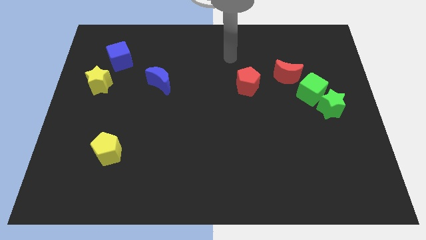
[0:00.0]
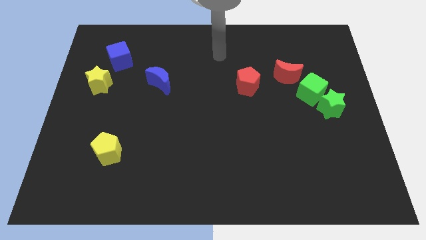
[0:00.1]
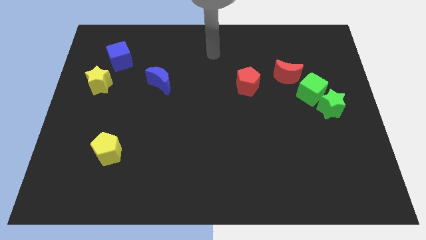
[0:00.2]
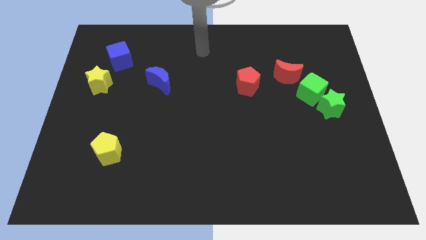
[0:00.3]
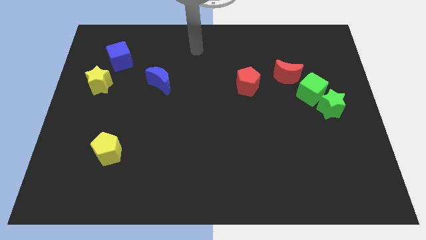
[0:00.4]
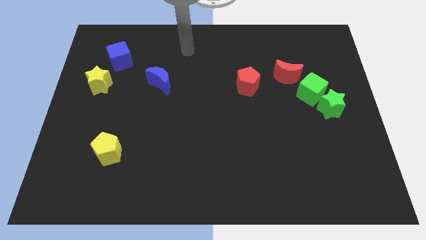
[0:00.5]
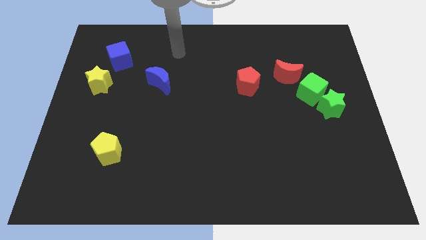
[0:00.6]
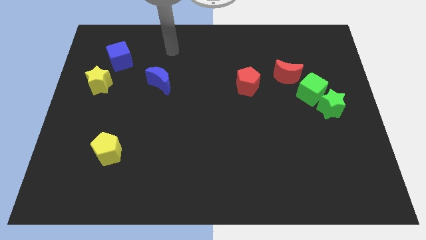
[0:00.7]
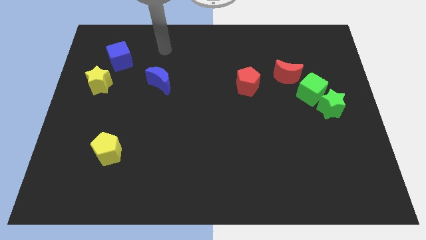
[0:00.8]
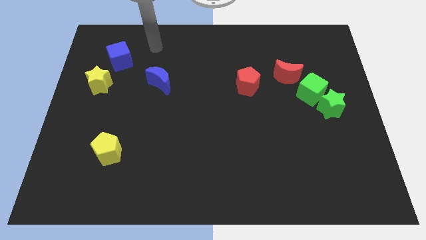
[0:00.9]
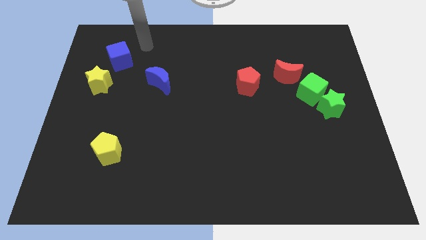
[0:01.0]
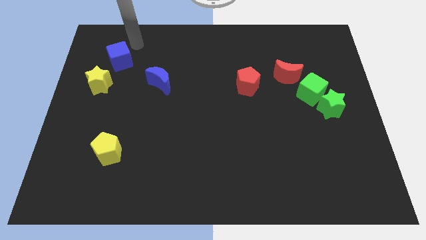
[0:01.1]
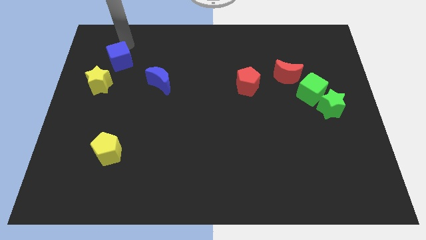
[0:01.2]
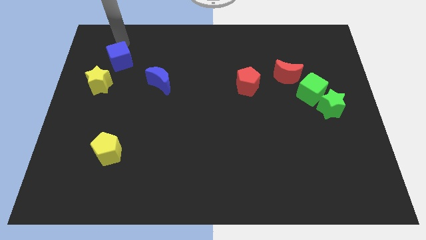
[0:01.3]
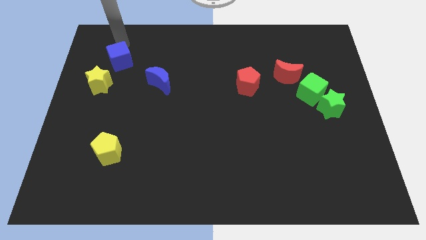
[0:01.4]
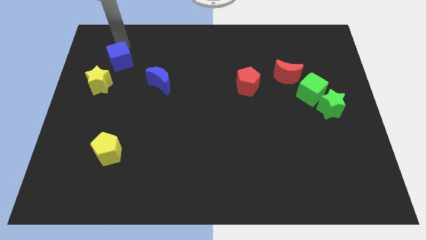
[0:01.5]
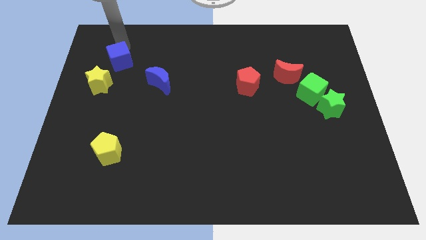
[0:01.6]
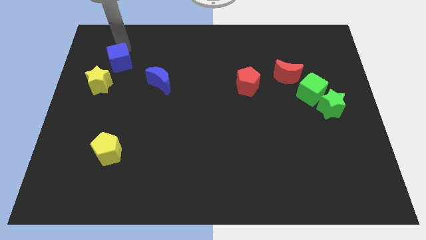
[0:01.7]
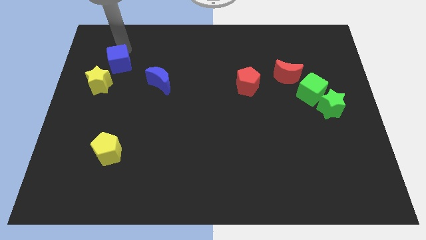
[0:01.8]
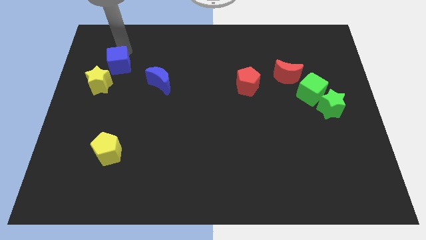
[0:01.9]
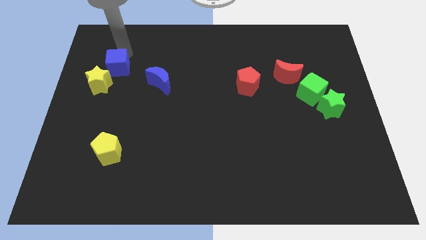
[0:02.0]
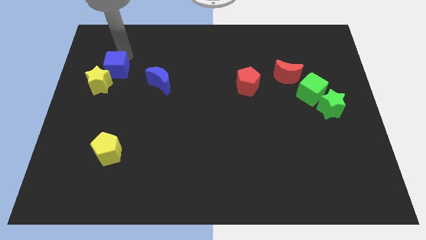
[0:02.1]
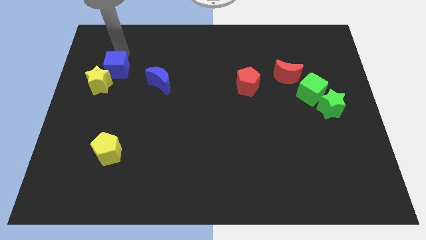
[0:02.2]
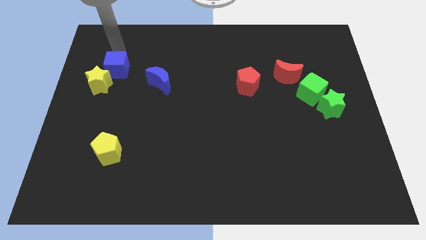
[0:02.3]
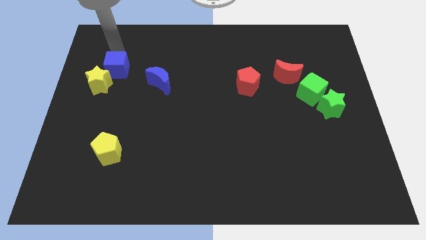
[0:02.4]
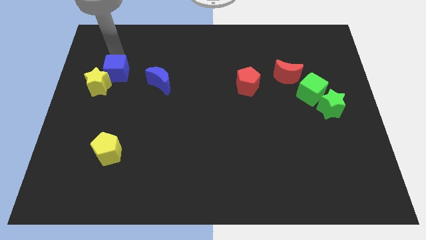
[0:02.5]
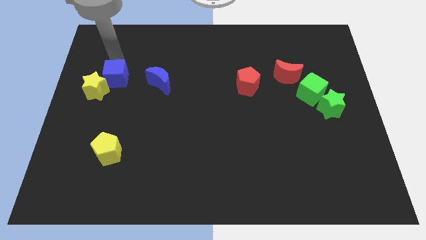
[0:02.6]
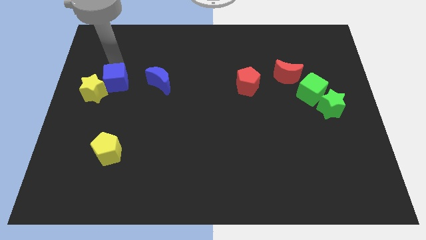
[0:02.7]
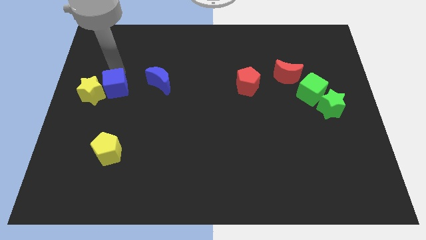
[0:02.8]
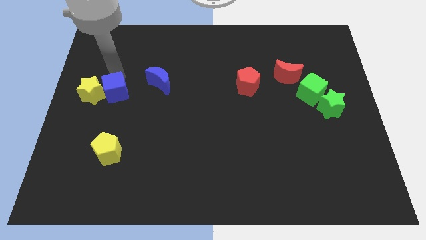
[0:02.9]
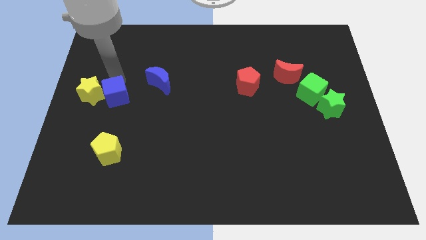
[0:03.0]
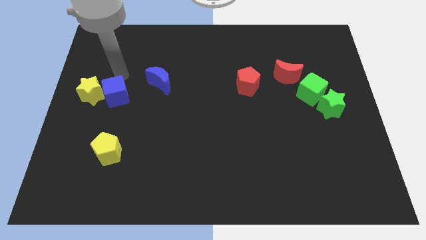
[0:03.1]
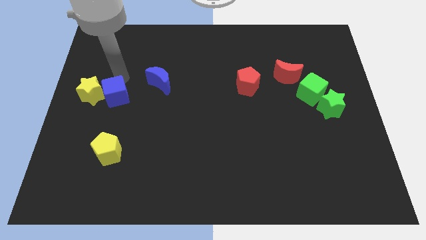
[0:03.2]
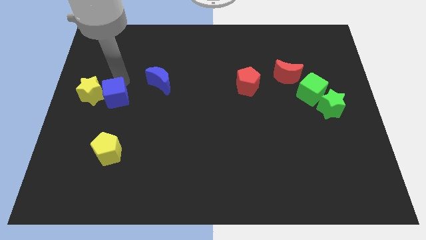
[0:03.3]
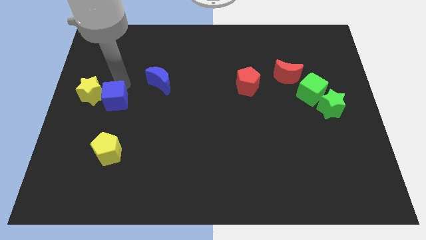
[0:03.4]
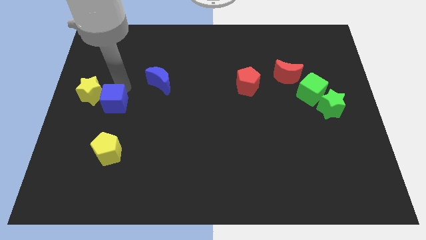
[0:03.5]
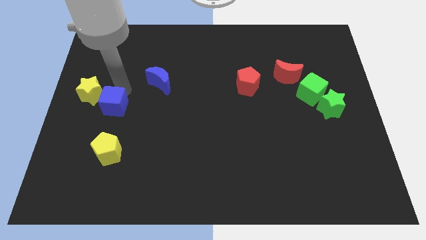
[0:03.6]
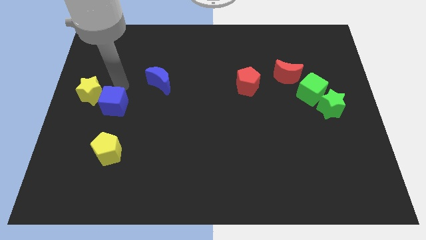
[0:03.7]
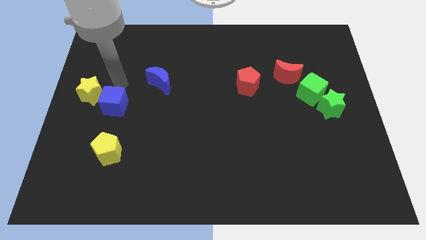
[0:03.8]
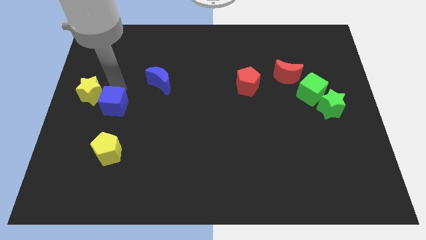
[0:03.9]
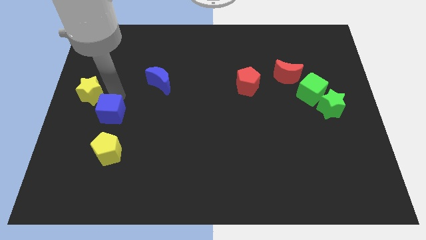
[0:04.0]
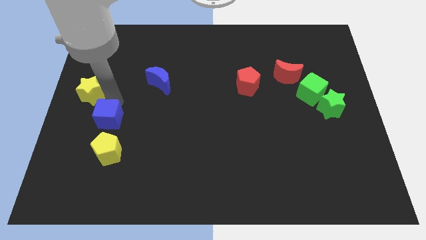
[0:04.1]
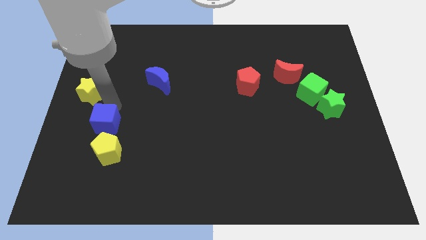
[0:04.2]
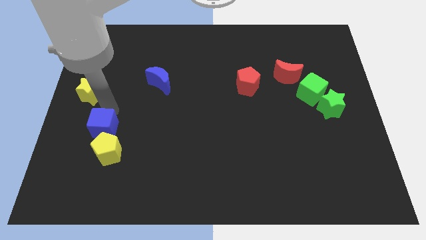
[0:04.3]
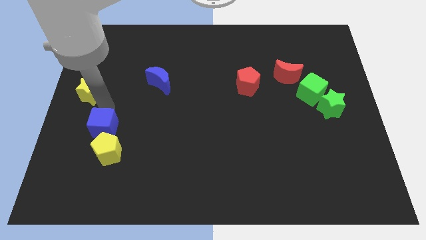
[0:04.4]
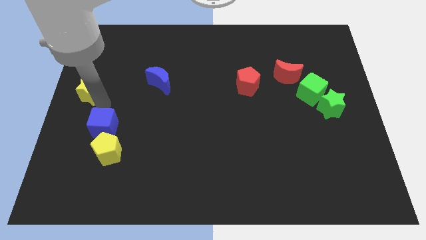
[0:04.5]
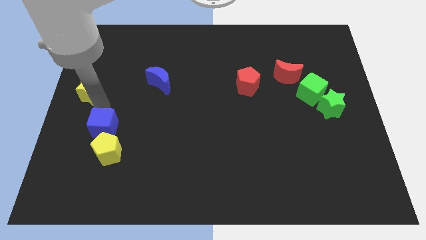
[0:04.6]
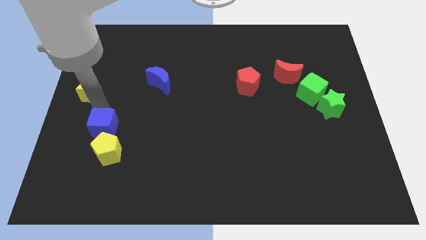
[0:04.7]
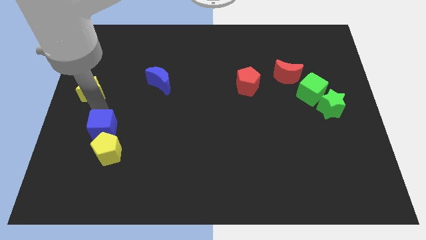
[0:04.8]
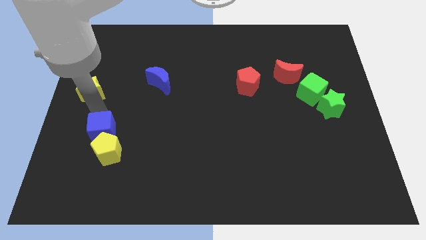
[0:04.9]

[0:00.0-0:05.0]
move the blue cube next to the yellow pentagon

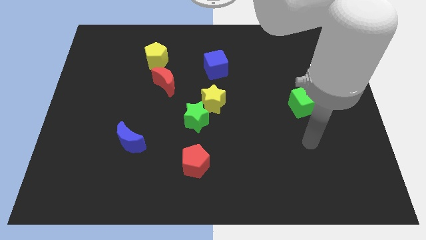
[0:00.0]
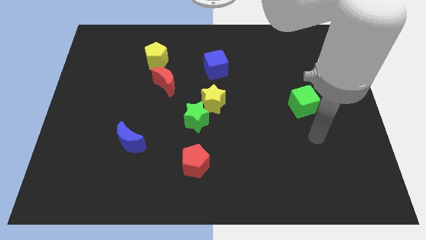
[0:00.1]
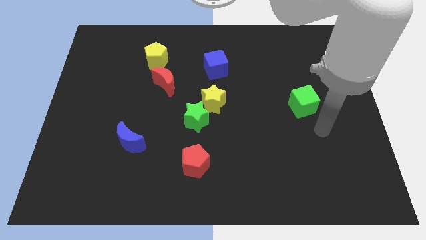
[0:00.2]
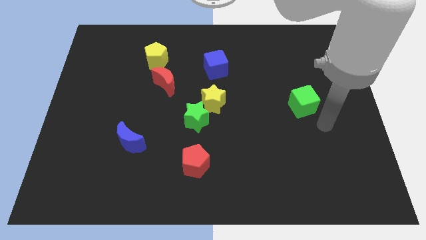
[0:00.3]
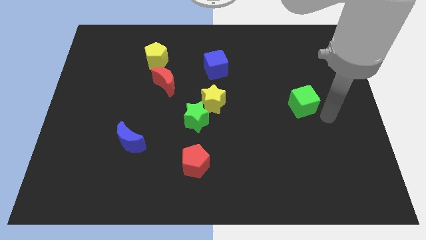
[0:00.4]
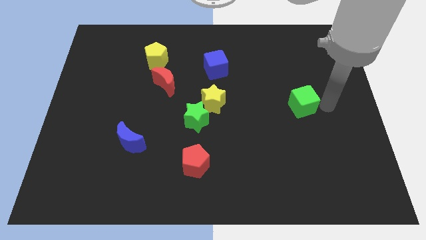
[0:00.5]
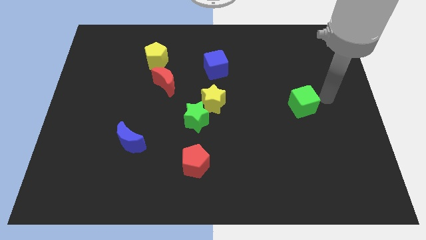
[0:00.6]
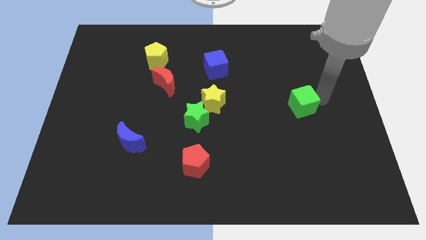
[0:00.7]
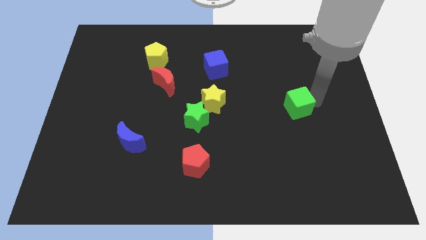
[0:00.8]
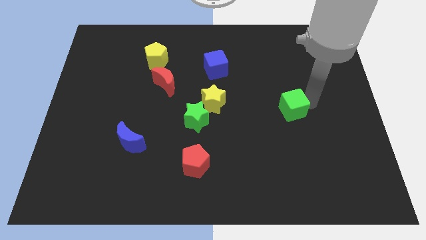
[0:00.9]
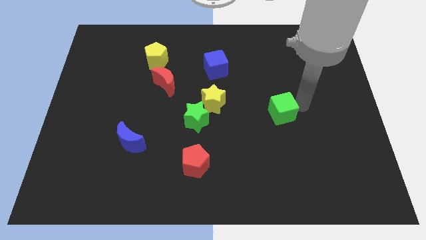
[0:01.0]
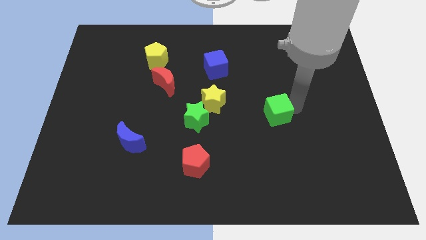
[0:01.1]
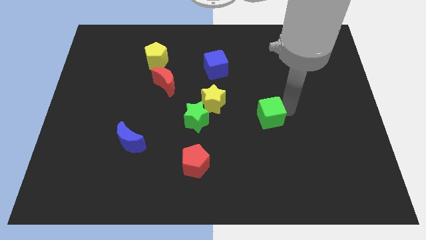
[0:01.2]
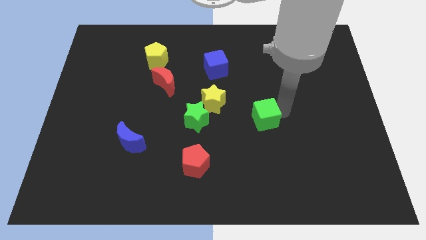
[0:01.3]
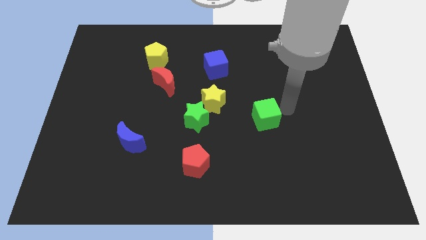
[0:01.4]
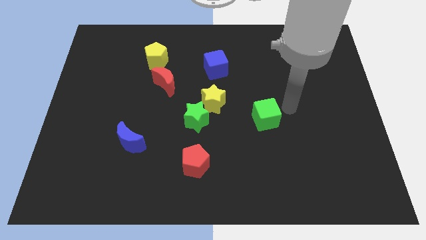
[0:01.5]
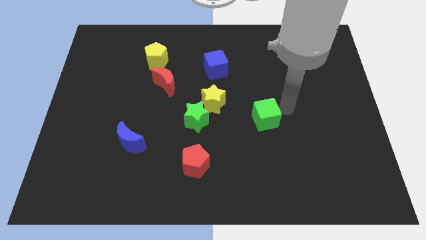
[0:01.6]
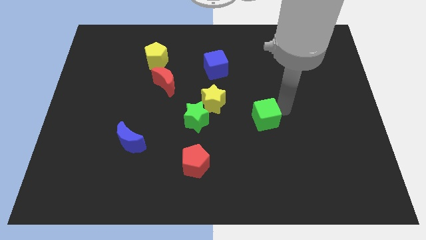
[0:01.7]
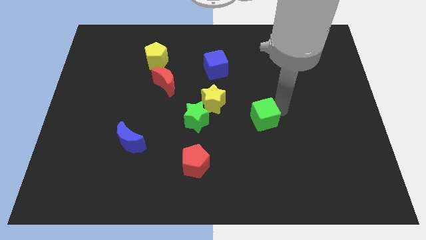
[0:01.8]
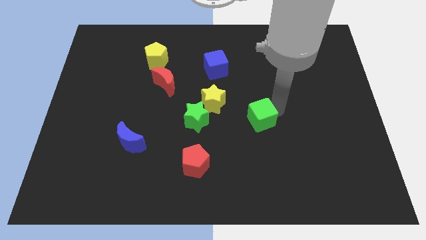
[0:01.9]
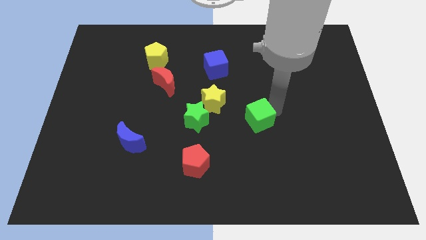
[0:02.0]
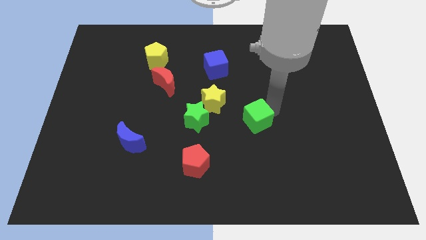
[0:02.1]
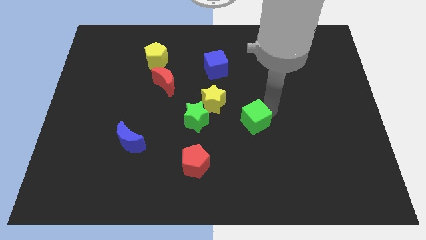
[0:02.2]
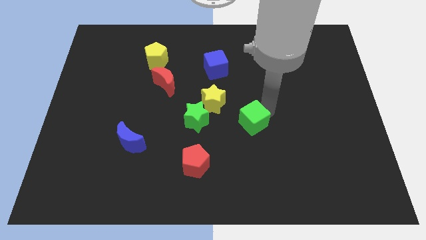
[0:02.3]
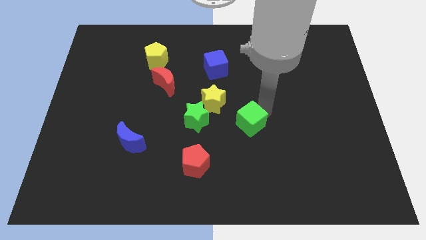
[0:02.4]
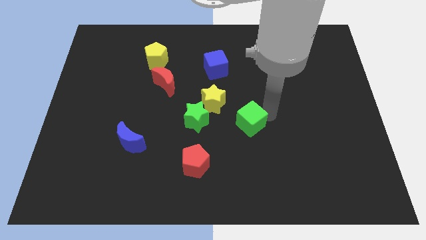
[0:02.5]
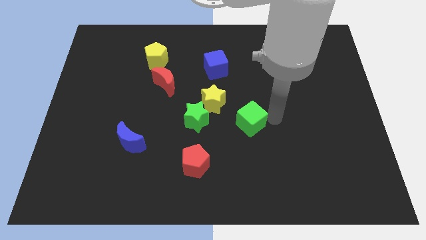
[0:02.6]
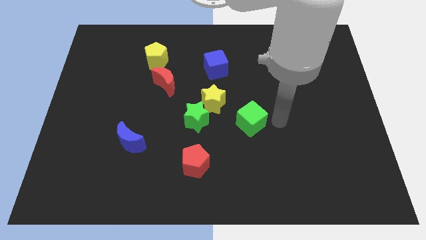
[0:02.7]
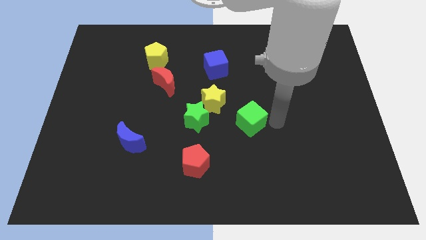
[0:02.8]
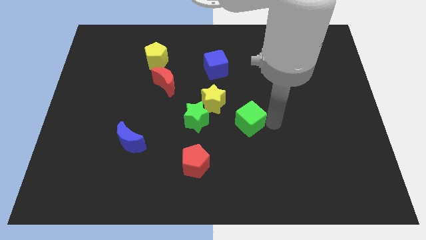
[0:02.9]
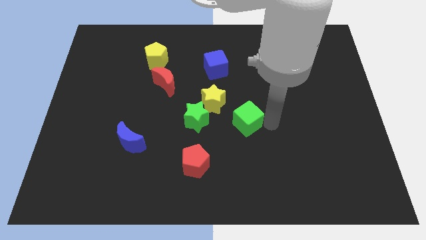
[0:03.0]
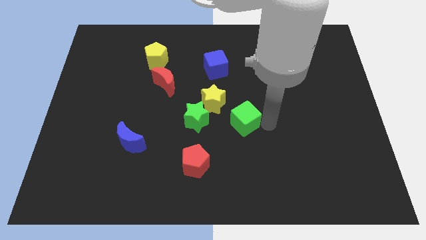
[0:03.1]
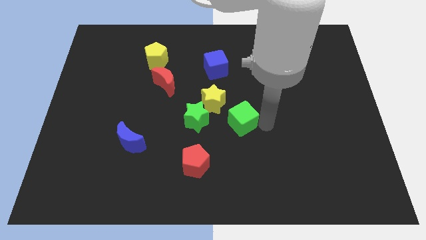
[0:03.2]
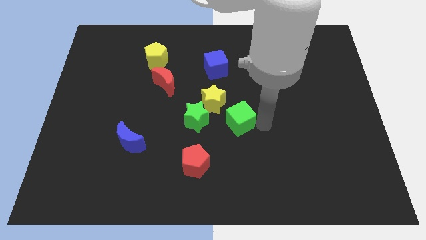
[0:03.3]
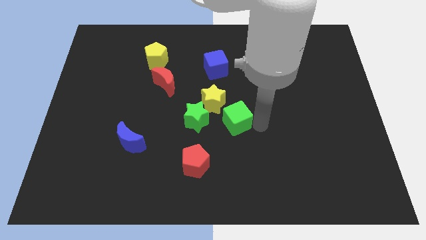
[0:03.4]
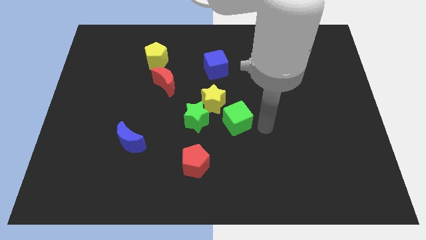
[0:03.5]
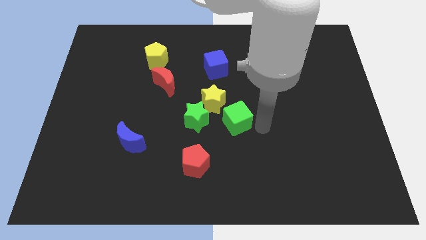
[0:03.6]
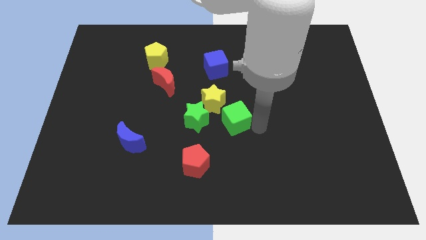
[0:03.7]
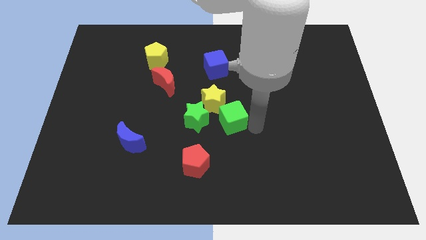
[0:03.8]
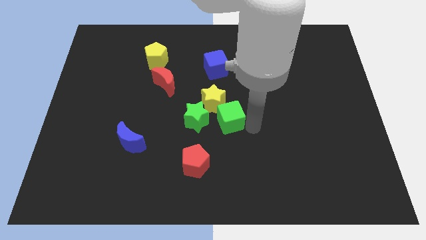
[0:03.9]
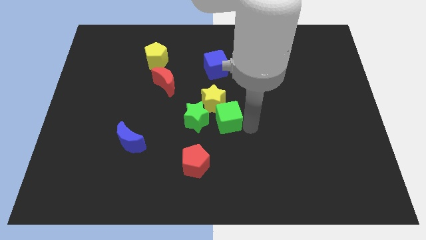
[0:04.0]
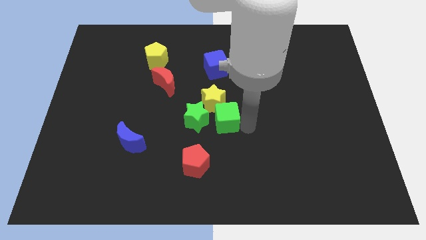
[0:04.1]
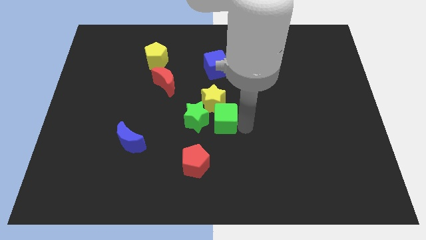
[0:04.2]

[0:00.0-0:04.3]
move the green cube next to the green star
